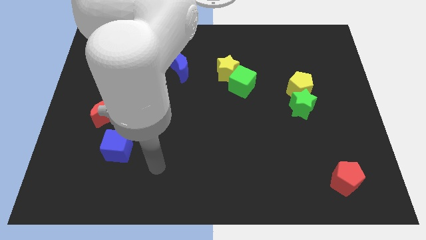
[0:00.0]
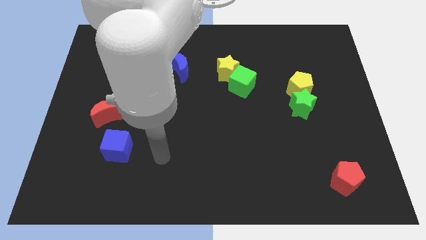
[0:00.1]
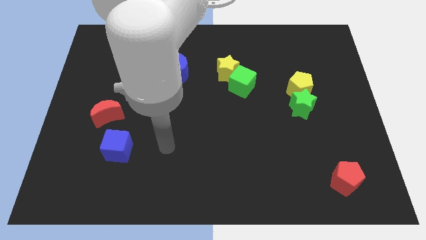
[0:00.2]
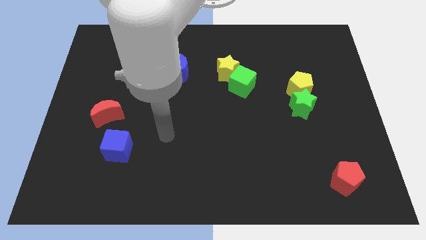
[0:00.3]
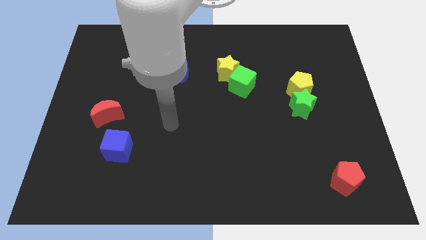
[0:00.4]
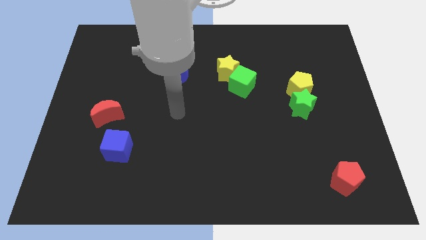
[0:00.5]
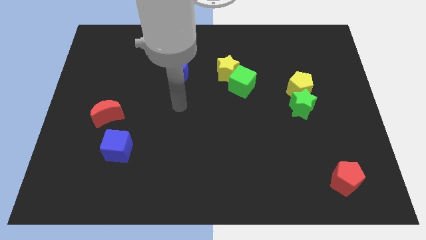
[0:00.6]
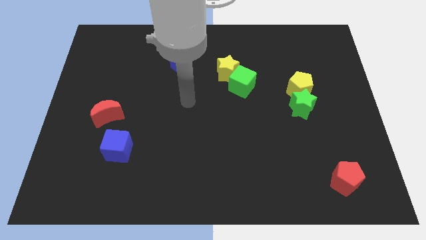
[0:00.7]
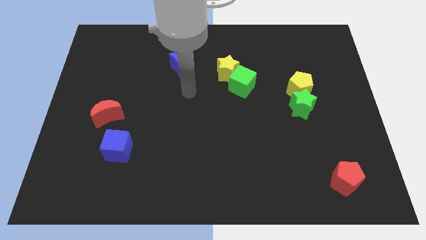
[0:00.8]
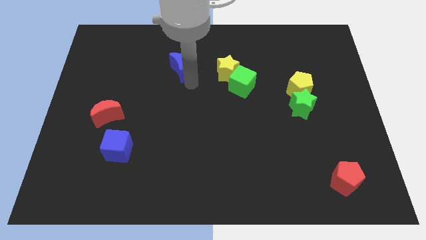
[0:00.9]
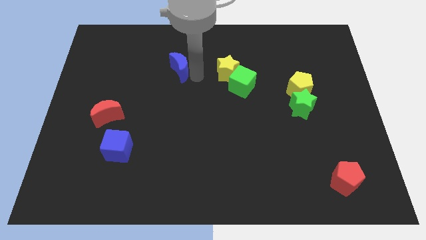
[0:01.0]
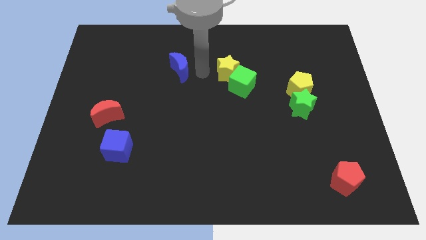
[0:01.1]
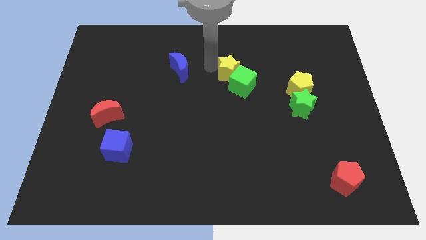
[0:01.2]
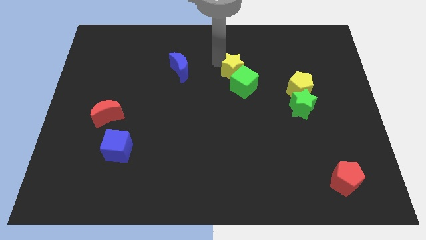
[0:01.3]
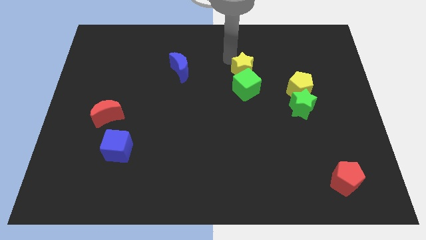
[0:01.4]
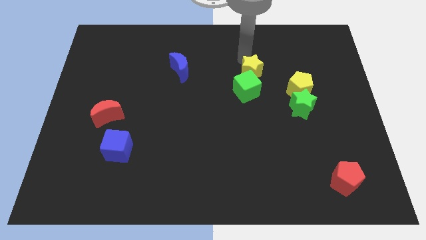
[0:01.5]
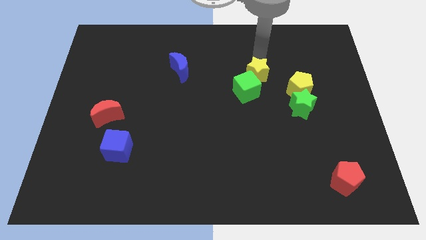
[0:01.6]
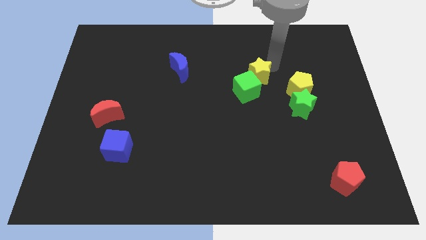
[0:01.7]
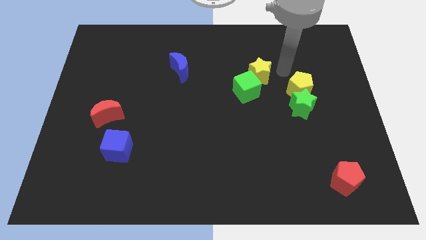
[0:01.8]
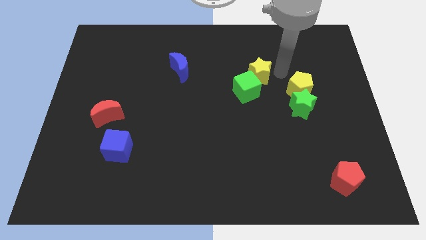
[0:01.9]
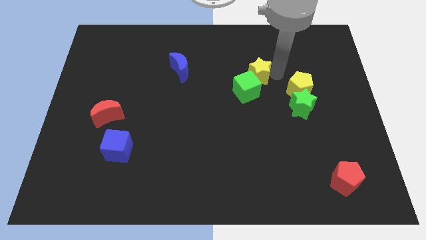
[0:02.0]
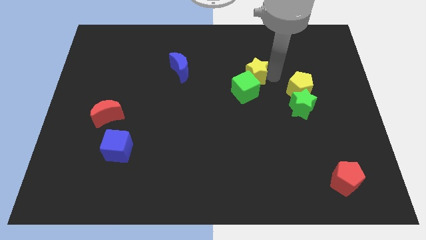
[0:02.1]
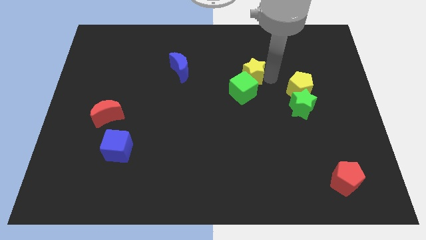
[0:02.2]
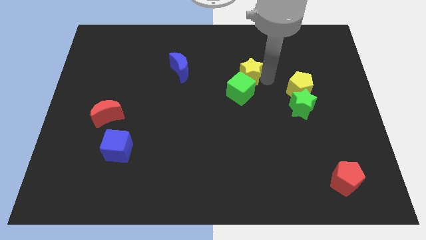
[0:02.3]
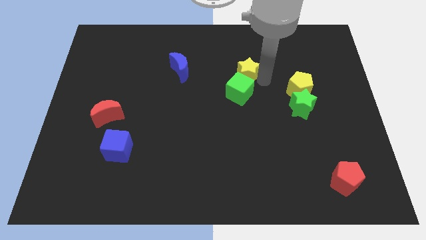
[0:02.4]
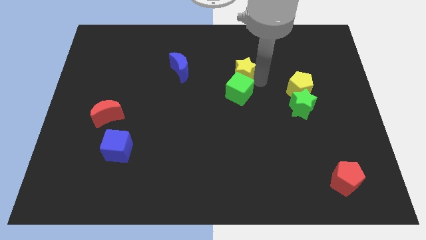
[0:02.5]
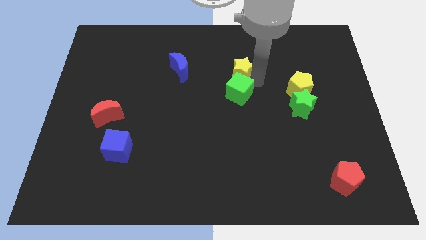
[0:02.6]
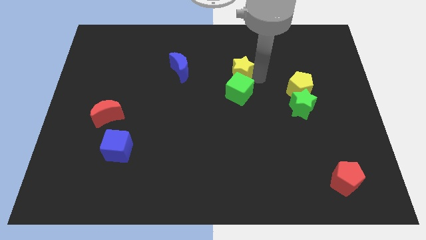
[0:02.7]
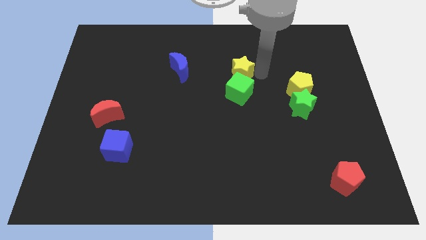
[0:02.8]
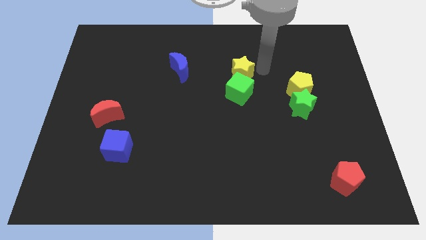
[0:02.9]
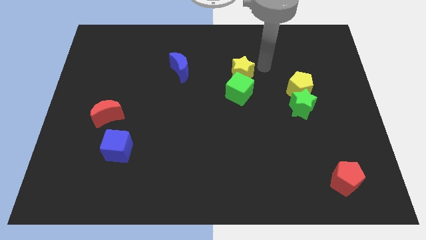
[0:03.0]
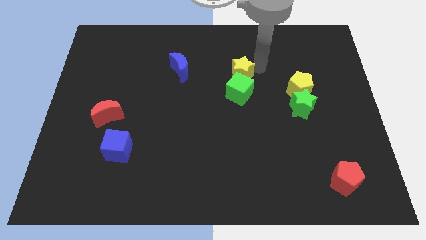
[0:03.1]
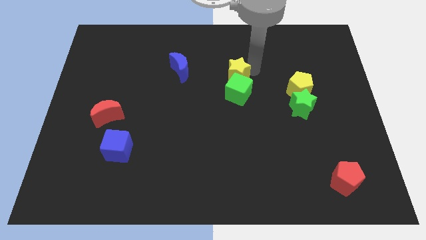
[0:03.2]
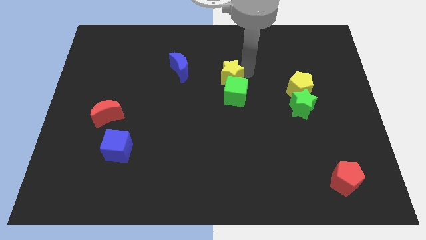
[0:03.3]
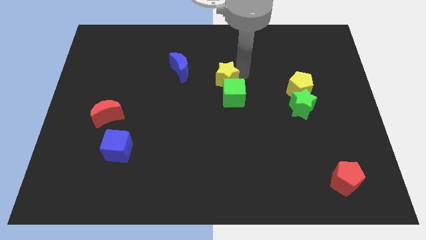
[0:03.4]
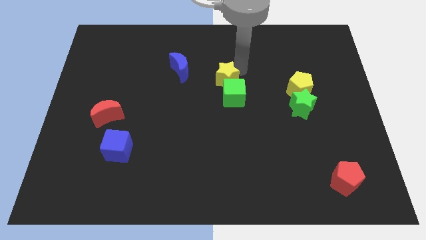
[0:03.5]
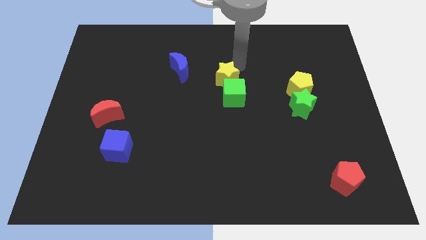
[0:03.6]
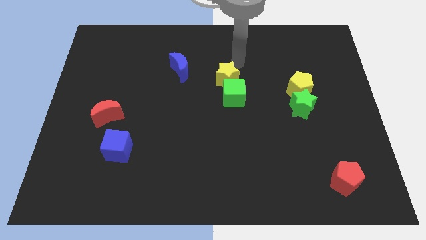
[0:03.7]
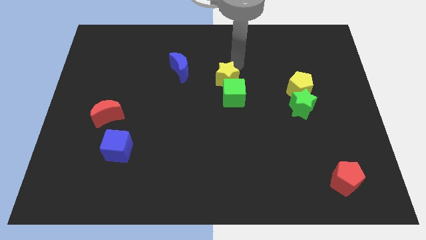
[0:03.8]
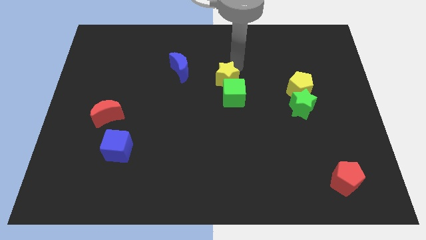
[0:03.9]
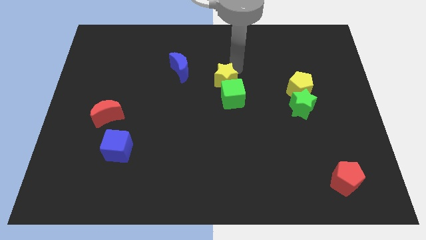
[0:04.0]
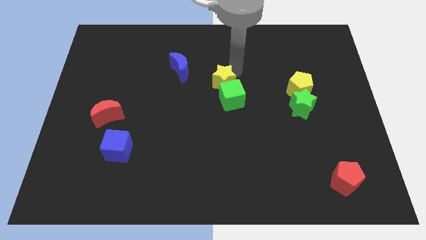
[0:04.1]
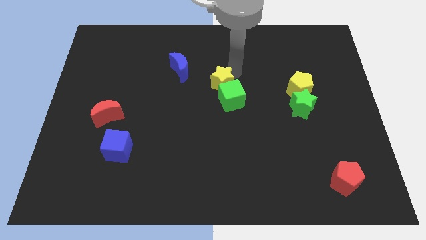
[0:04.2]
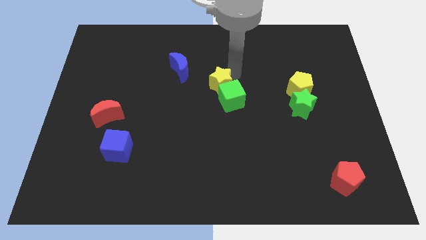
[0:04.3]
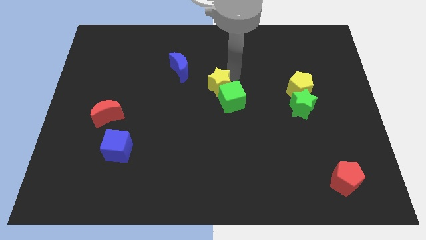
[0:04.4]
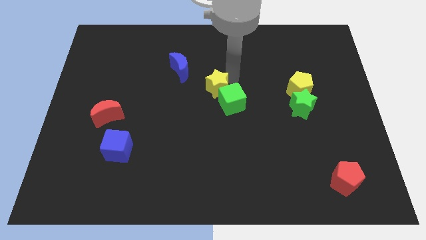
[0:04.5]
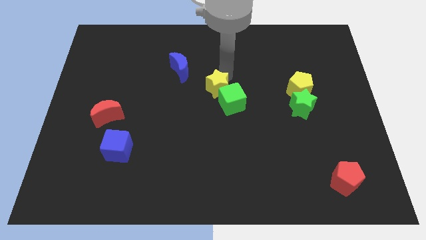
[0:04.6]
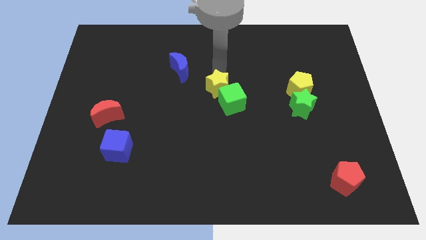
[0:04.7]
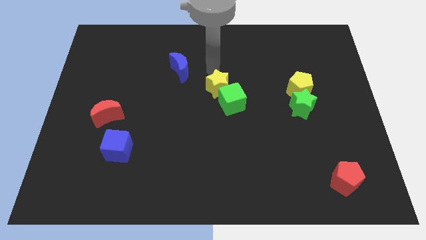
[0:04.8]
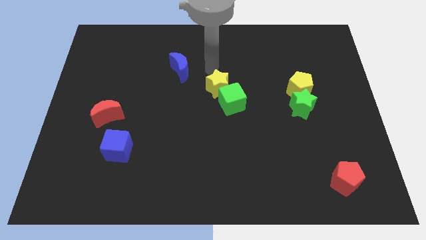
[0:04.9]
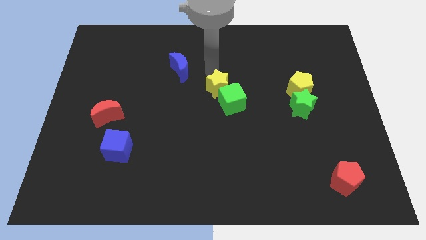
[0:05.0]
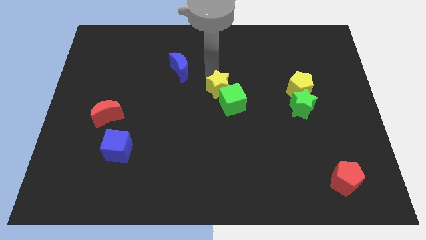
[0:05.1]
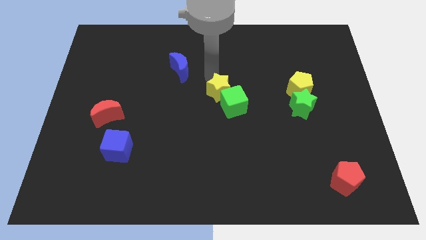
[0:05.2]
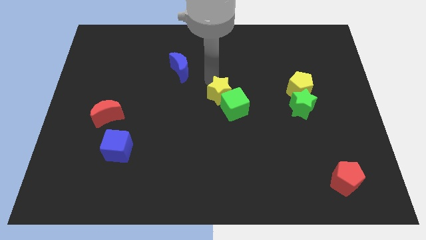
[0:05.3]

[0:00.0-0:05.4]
move the yellow star downwards slightly

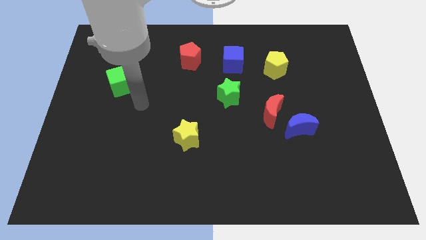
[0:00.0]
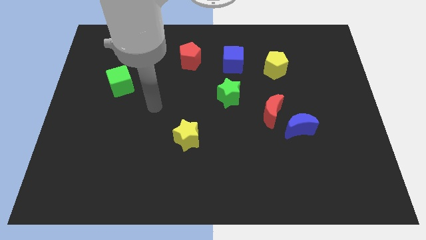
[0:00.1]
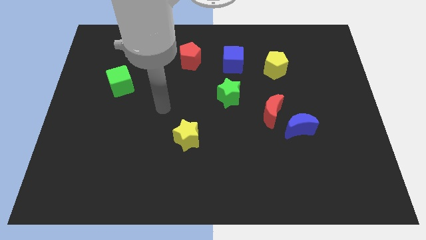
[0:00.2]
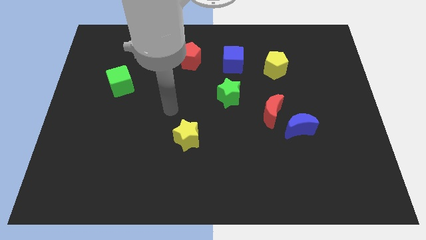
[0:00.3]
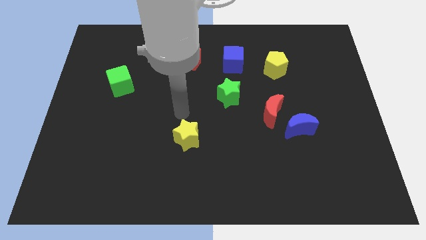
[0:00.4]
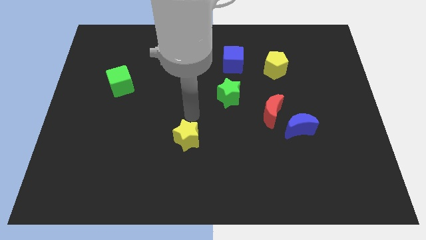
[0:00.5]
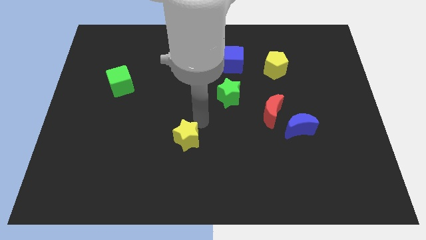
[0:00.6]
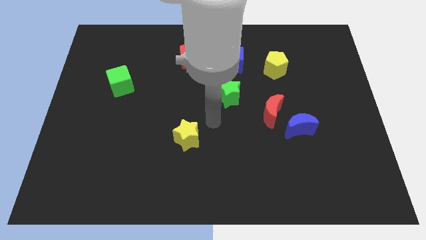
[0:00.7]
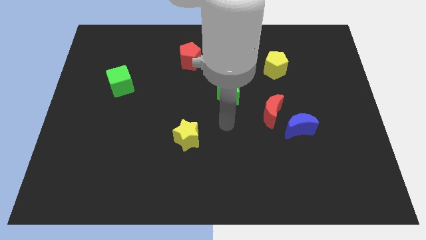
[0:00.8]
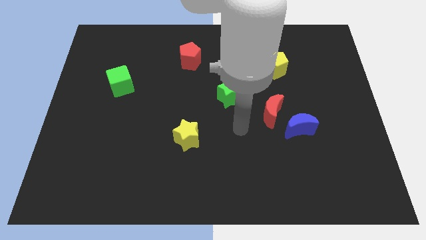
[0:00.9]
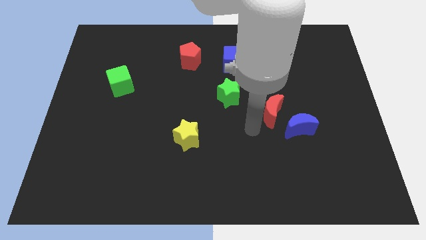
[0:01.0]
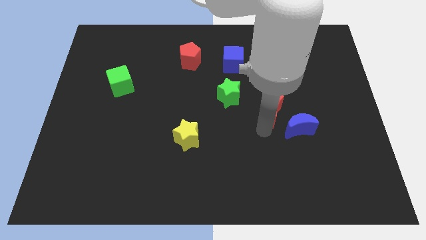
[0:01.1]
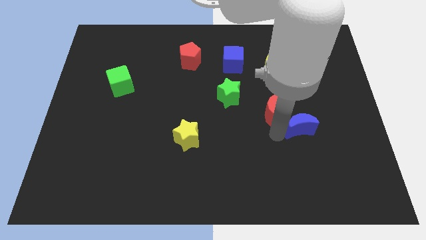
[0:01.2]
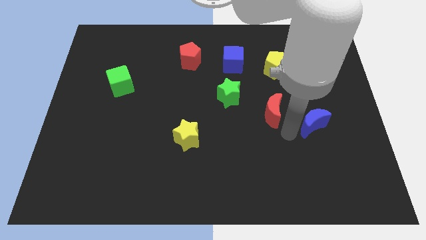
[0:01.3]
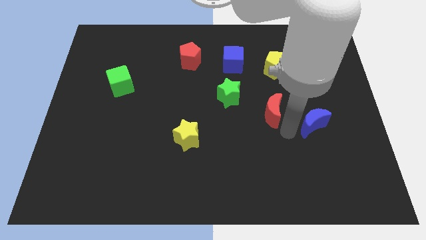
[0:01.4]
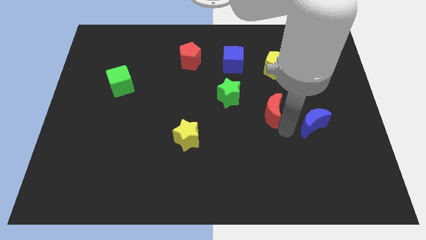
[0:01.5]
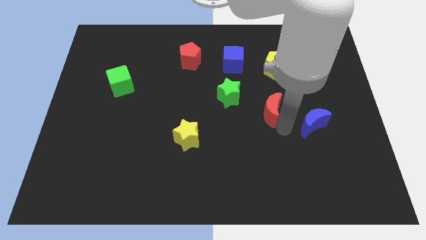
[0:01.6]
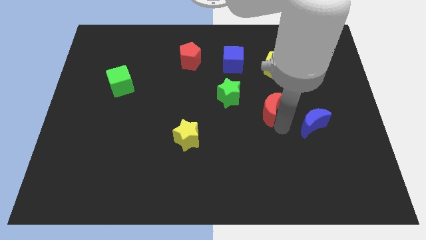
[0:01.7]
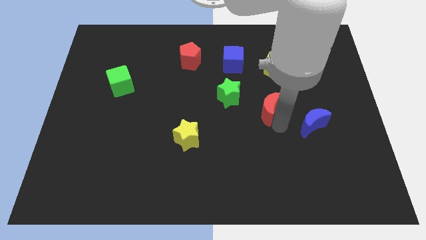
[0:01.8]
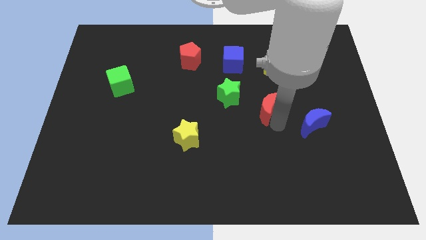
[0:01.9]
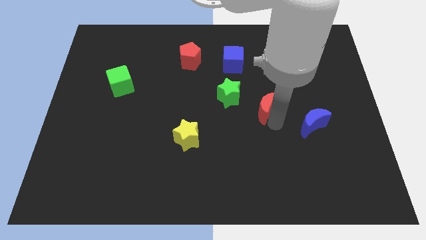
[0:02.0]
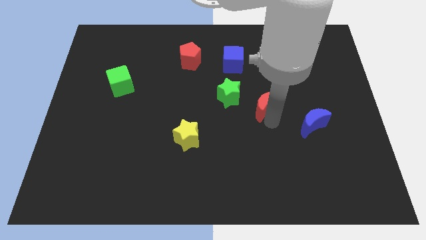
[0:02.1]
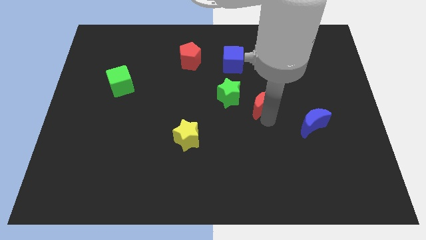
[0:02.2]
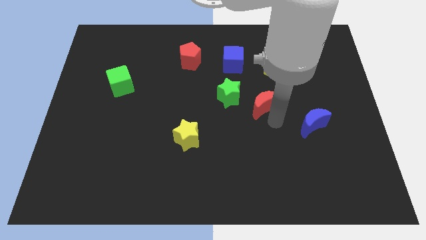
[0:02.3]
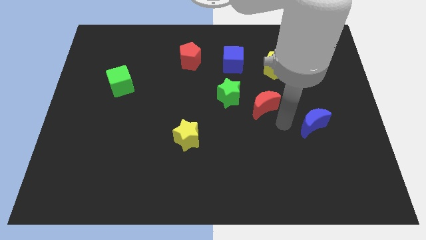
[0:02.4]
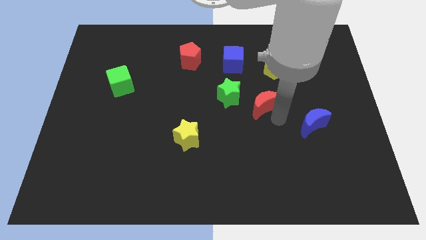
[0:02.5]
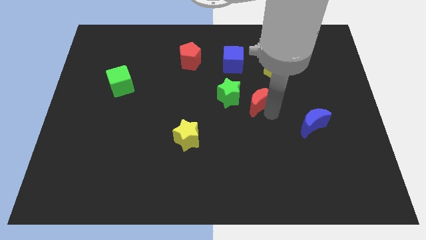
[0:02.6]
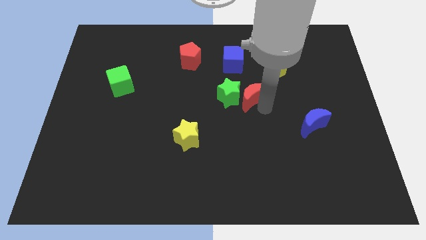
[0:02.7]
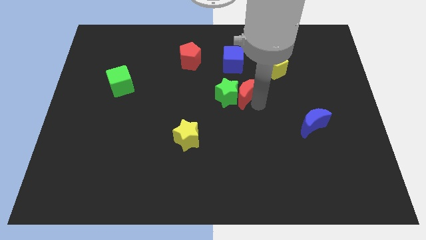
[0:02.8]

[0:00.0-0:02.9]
move the red moon a little bit upwards and then to the left
